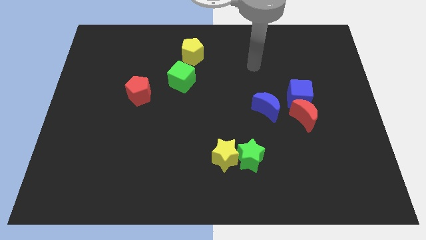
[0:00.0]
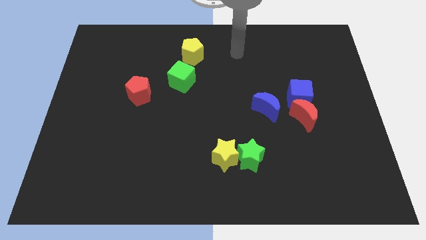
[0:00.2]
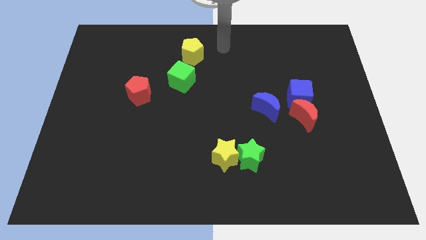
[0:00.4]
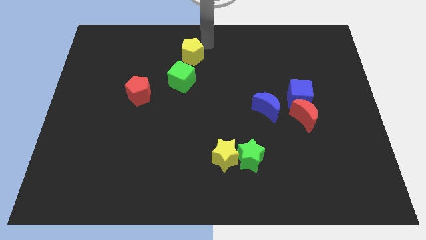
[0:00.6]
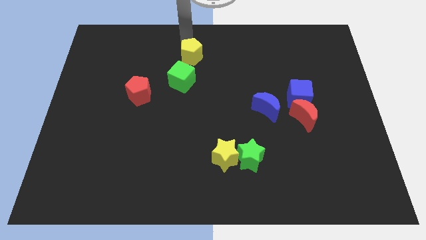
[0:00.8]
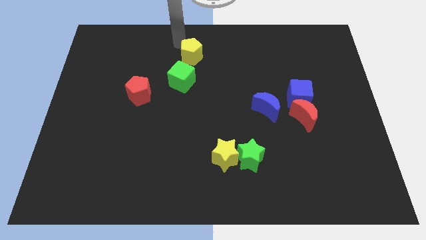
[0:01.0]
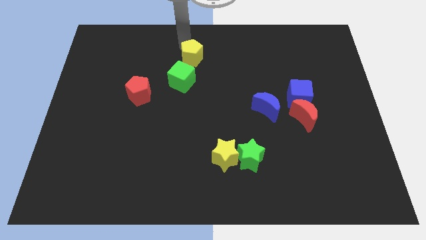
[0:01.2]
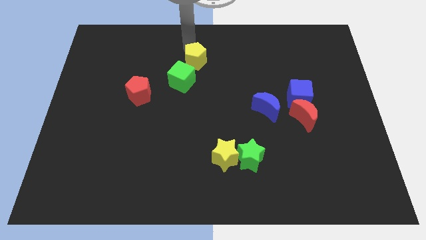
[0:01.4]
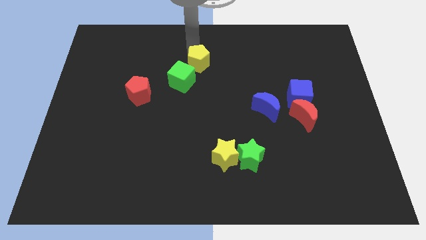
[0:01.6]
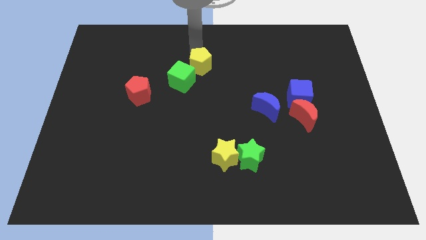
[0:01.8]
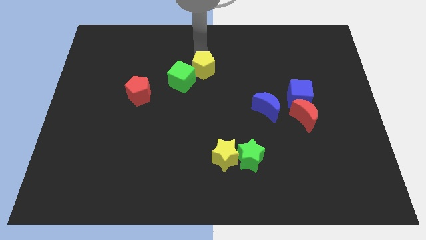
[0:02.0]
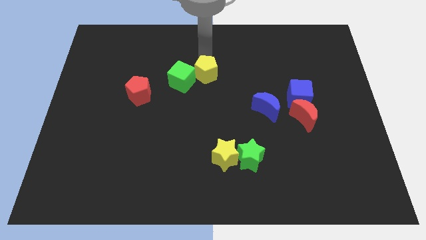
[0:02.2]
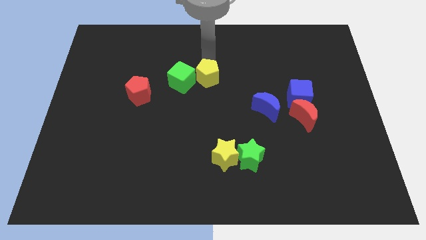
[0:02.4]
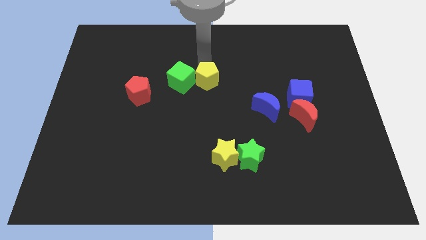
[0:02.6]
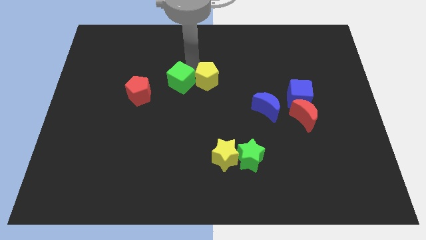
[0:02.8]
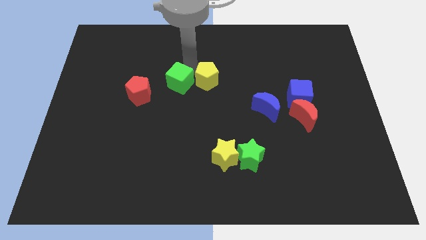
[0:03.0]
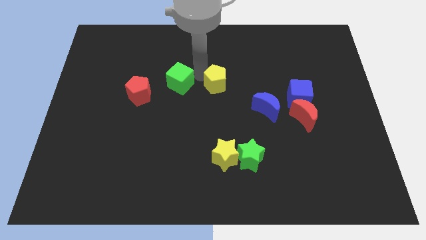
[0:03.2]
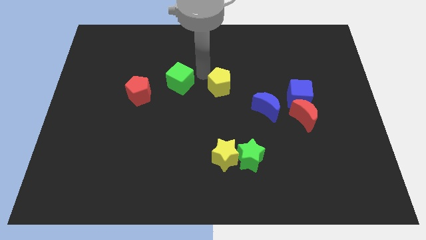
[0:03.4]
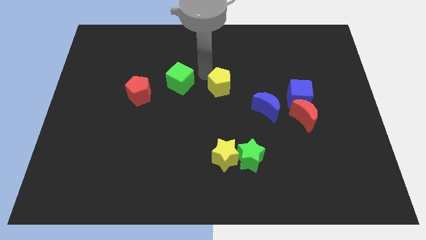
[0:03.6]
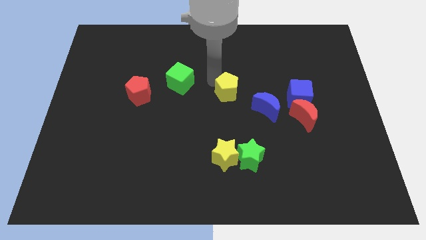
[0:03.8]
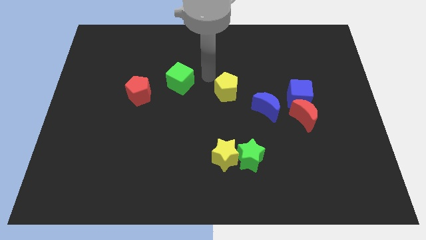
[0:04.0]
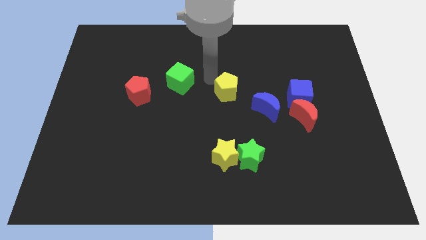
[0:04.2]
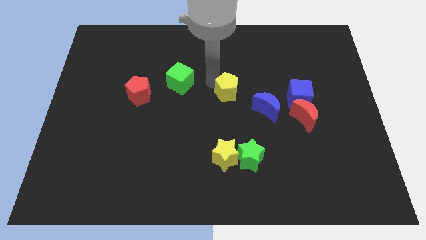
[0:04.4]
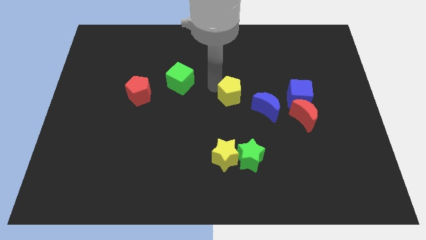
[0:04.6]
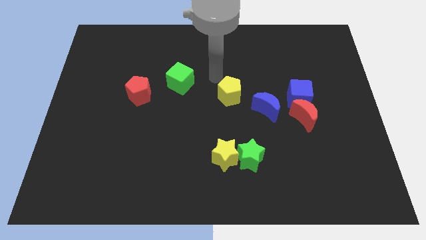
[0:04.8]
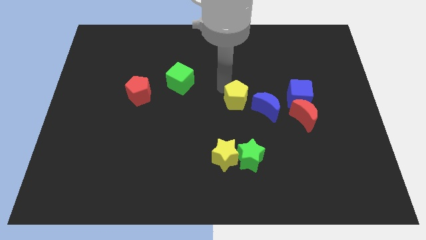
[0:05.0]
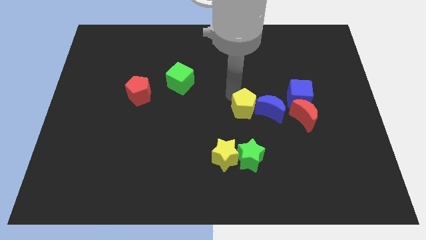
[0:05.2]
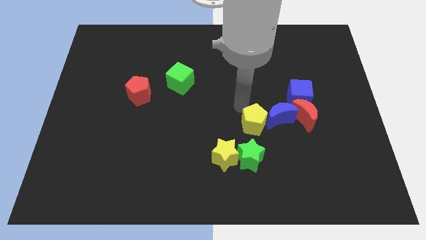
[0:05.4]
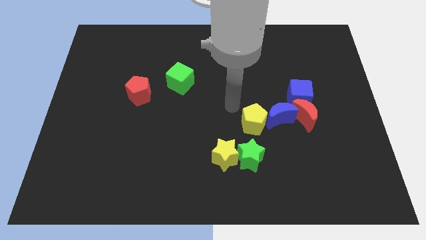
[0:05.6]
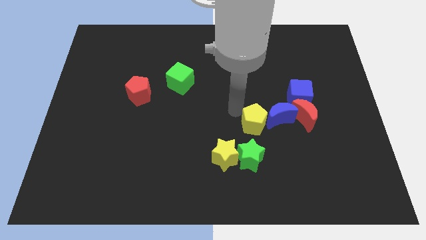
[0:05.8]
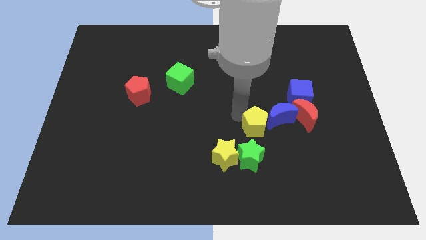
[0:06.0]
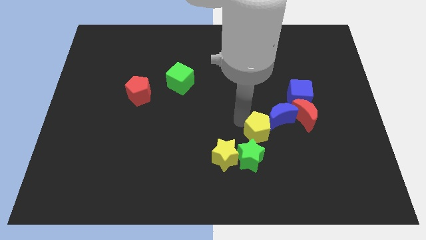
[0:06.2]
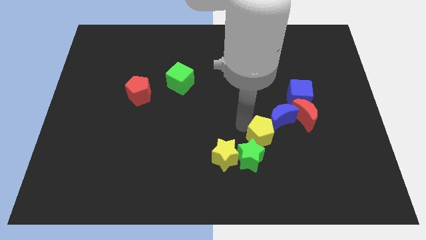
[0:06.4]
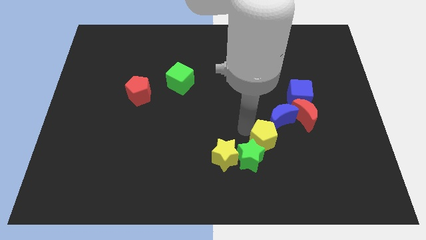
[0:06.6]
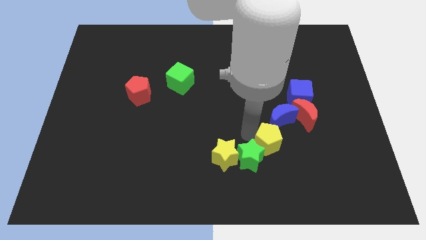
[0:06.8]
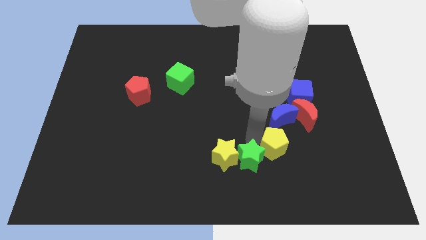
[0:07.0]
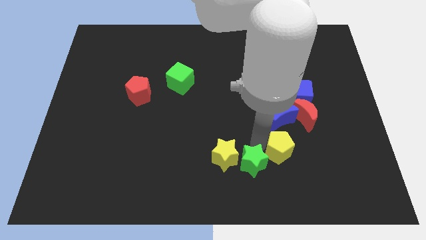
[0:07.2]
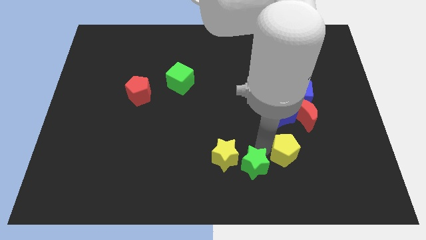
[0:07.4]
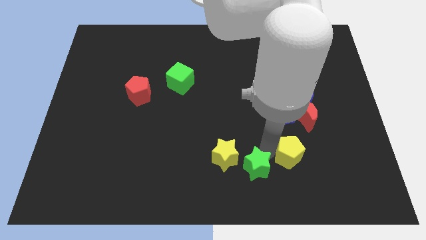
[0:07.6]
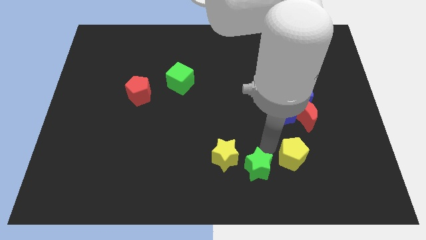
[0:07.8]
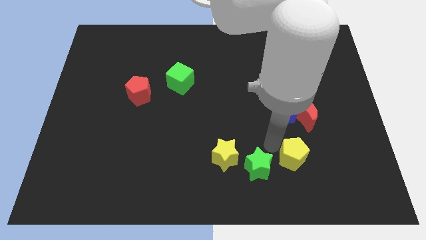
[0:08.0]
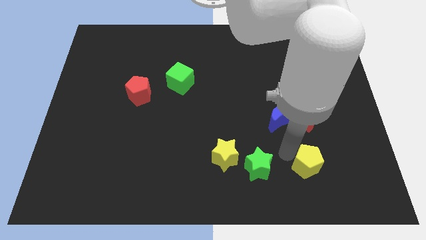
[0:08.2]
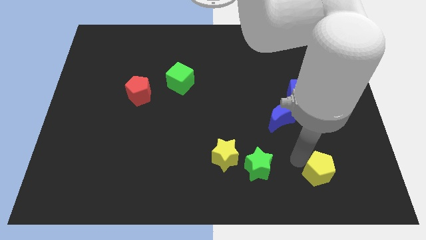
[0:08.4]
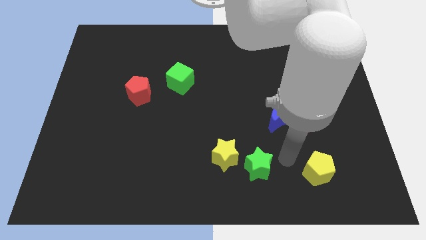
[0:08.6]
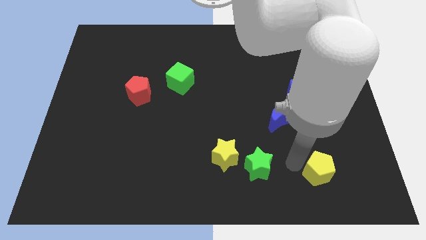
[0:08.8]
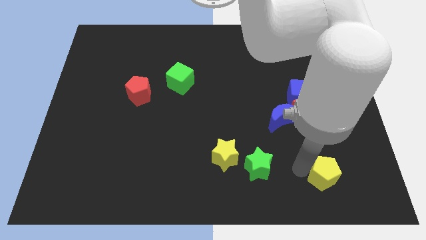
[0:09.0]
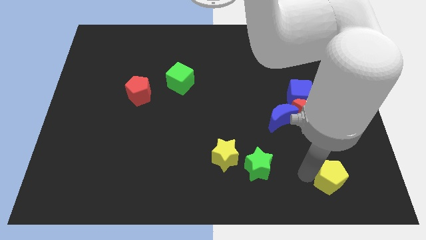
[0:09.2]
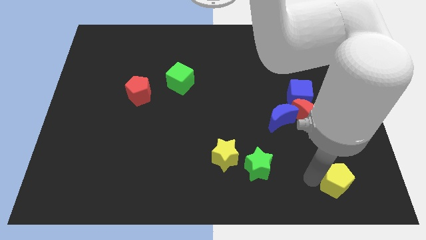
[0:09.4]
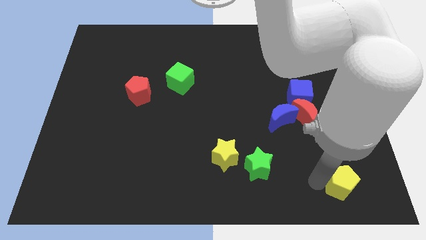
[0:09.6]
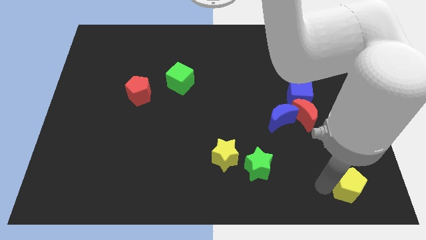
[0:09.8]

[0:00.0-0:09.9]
slide the yellow pentagon to the bottom right of the board

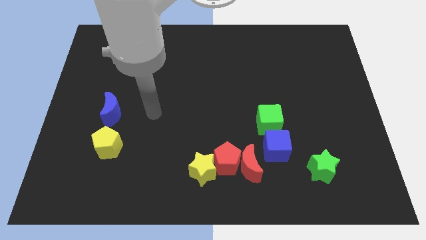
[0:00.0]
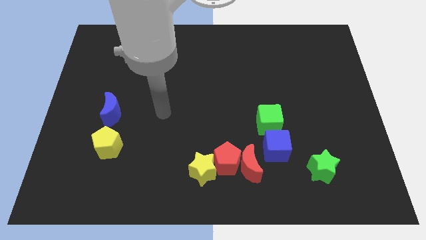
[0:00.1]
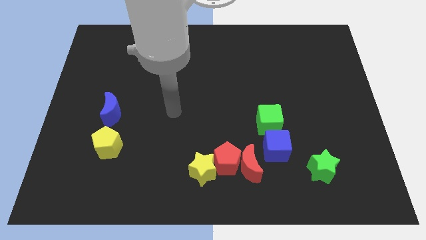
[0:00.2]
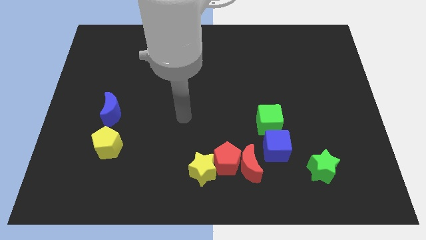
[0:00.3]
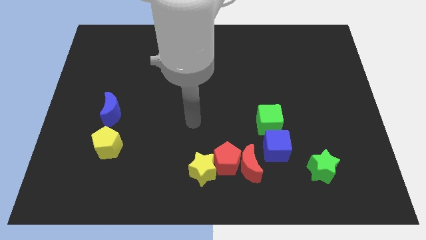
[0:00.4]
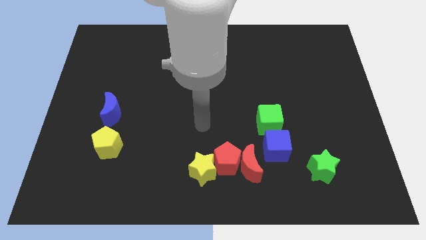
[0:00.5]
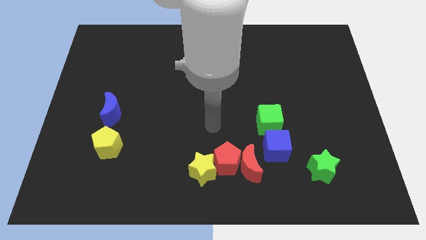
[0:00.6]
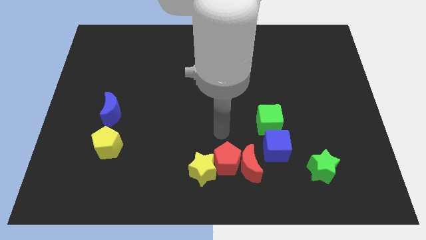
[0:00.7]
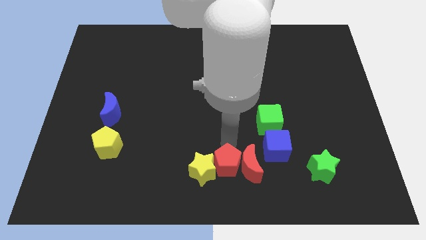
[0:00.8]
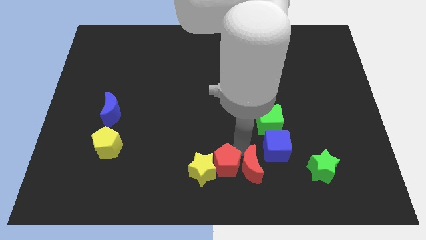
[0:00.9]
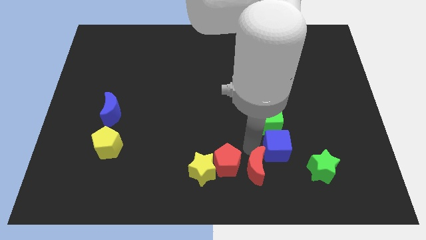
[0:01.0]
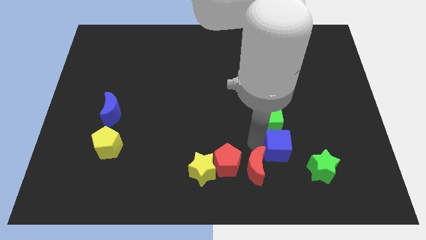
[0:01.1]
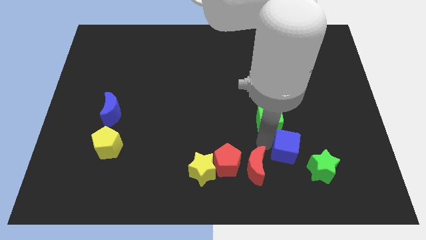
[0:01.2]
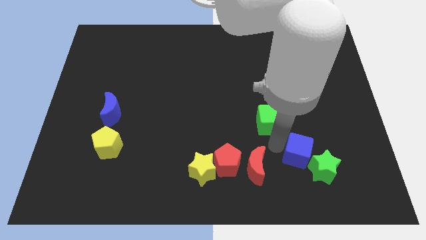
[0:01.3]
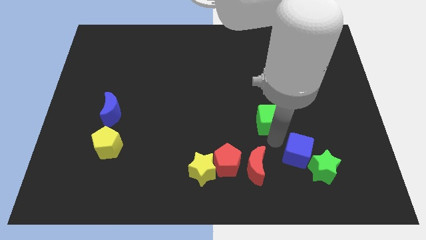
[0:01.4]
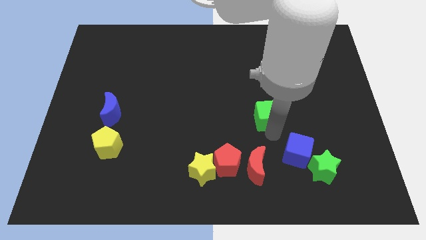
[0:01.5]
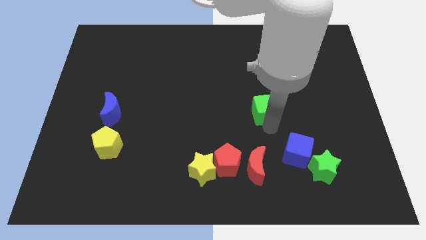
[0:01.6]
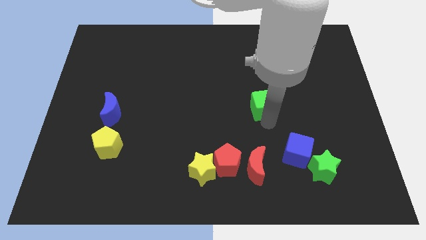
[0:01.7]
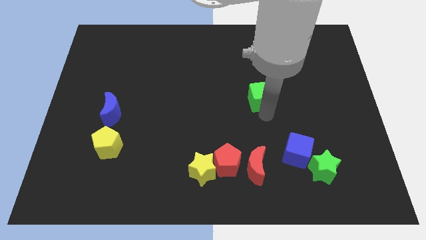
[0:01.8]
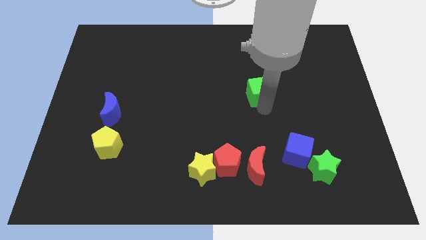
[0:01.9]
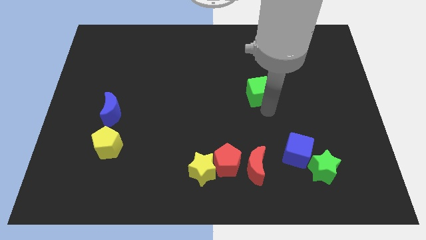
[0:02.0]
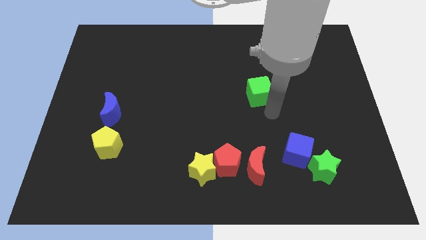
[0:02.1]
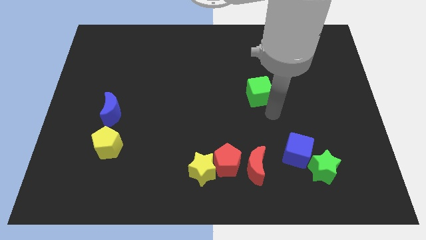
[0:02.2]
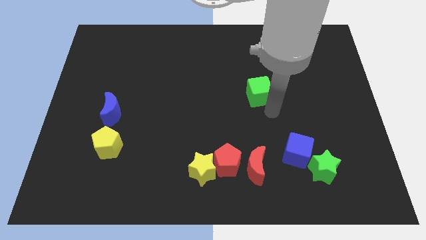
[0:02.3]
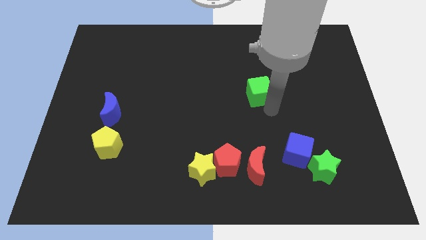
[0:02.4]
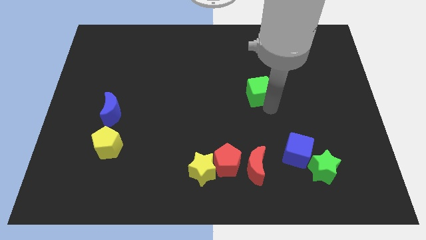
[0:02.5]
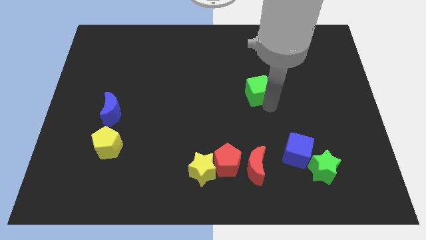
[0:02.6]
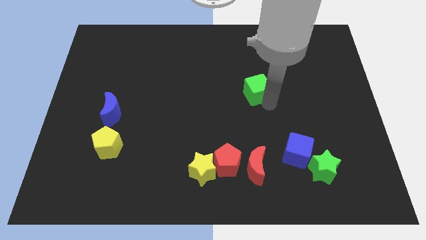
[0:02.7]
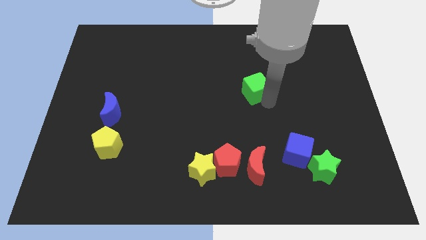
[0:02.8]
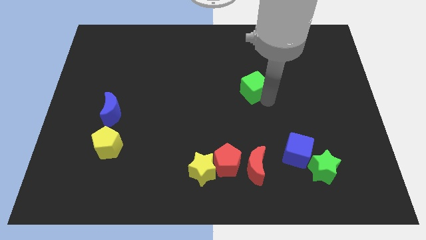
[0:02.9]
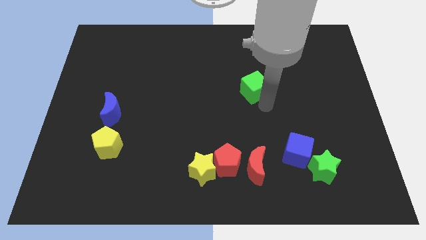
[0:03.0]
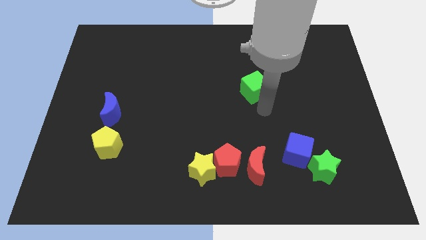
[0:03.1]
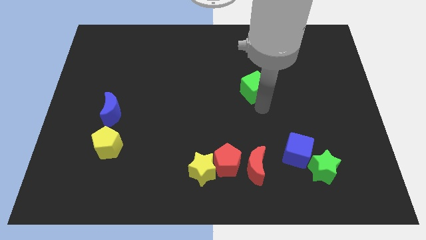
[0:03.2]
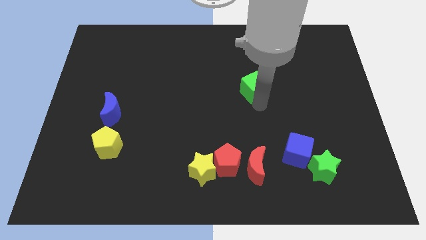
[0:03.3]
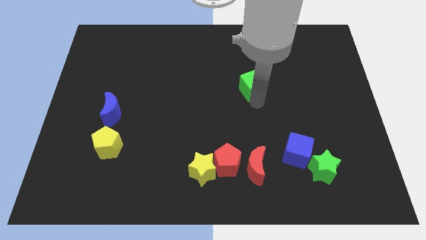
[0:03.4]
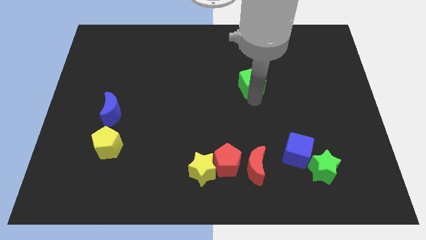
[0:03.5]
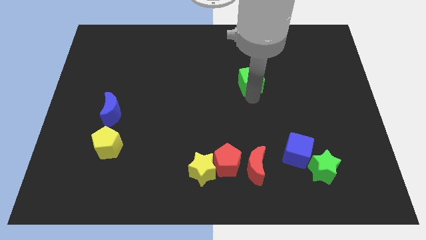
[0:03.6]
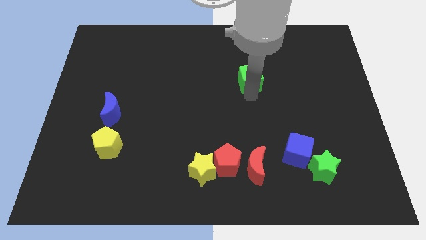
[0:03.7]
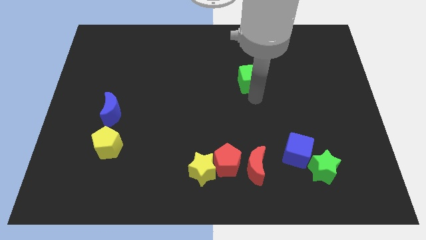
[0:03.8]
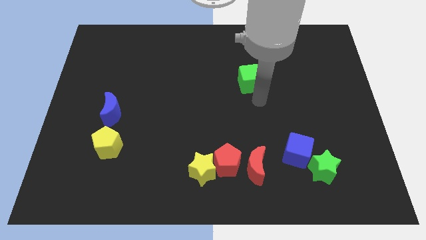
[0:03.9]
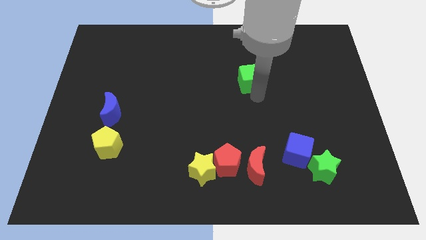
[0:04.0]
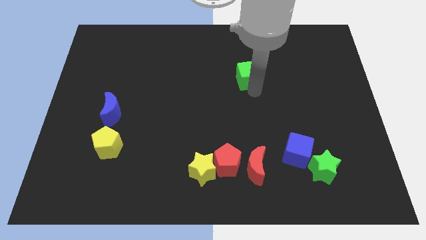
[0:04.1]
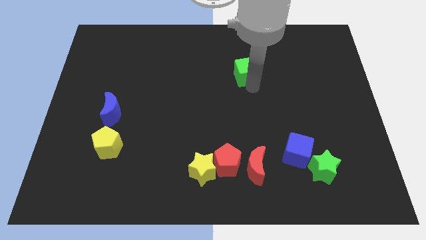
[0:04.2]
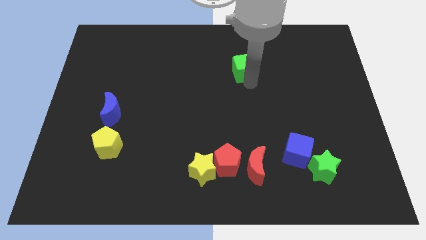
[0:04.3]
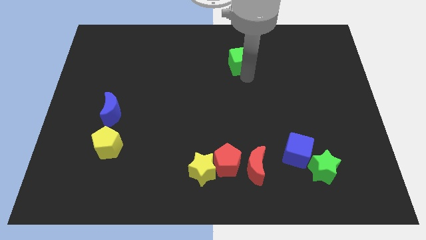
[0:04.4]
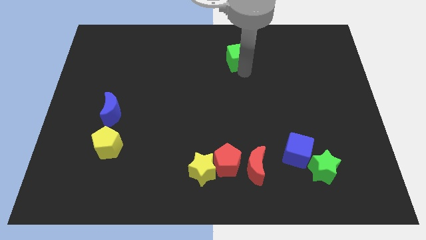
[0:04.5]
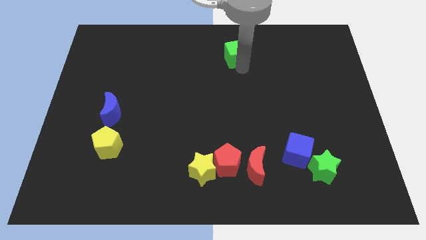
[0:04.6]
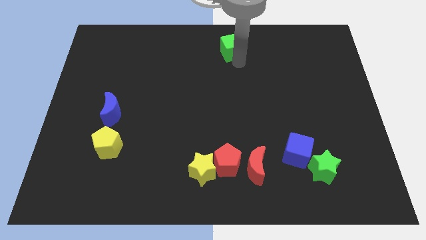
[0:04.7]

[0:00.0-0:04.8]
push the green cube to the towards your base
